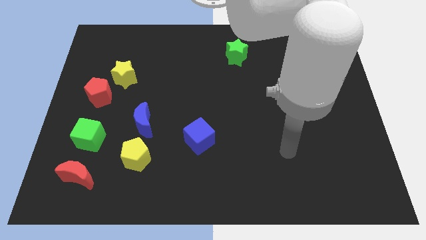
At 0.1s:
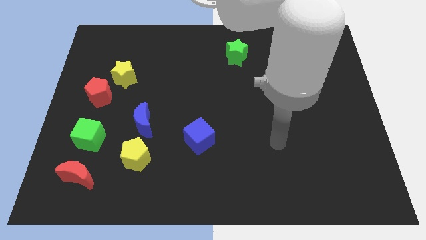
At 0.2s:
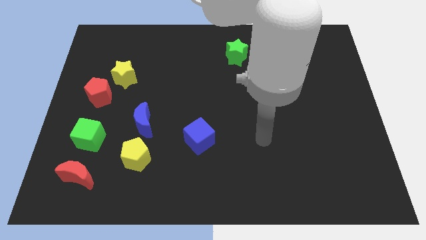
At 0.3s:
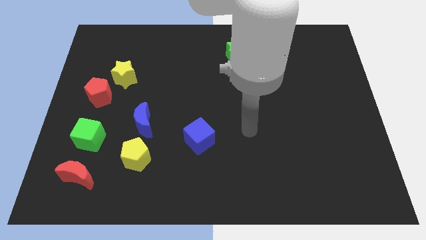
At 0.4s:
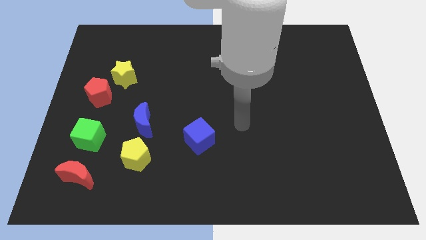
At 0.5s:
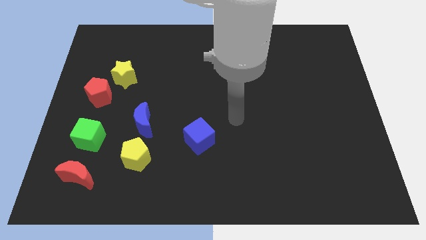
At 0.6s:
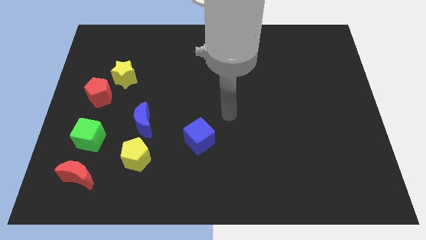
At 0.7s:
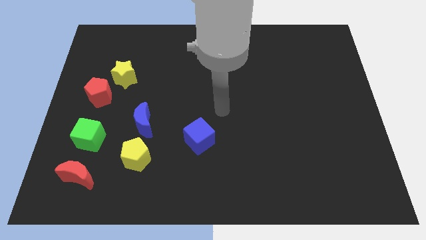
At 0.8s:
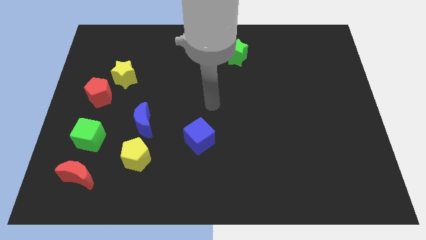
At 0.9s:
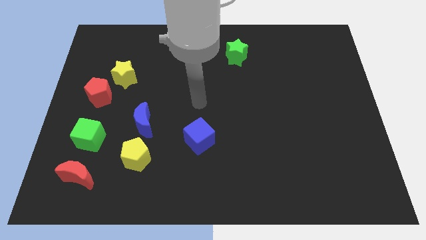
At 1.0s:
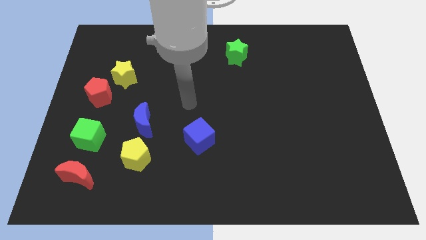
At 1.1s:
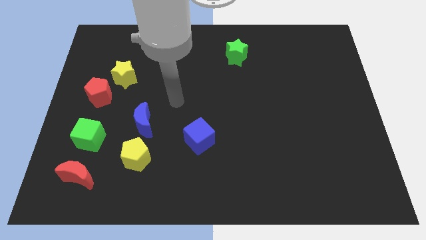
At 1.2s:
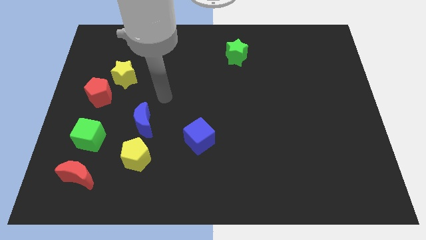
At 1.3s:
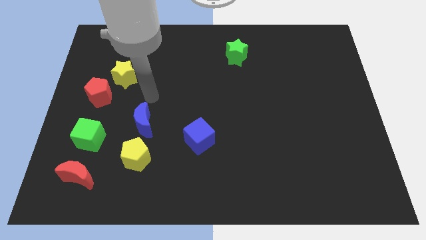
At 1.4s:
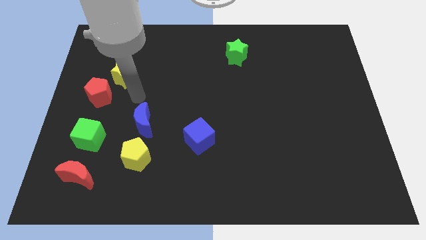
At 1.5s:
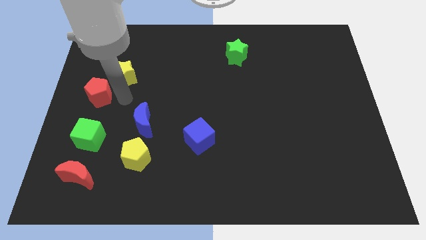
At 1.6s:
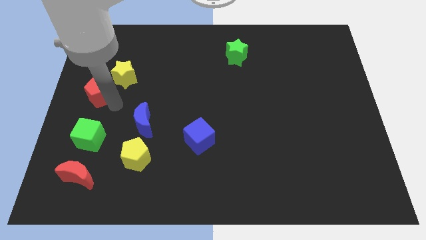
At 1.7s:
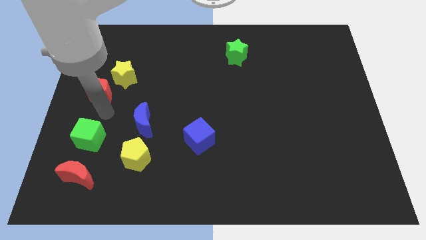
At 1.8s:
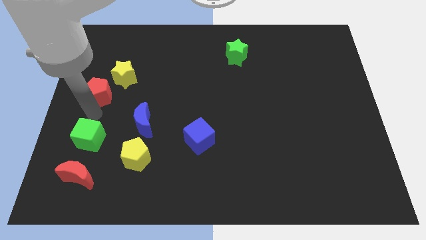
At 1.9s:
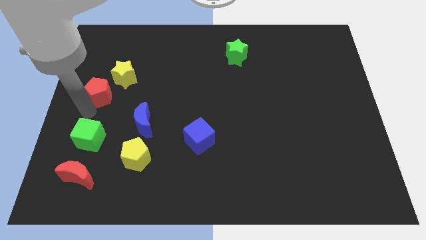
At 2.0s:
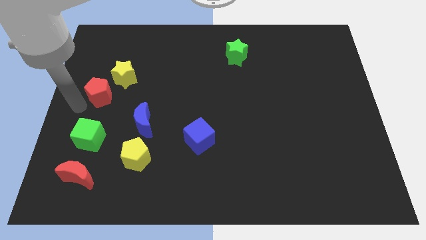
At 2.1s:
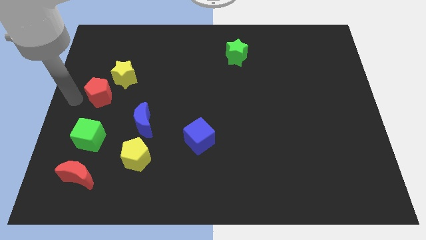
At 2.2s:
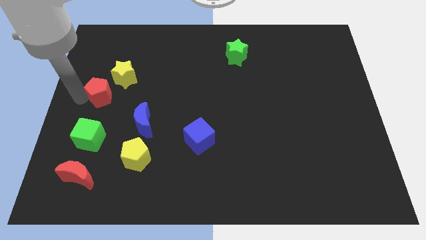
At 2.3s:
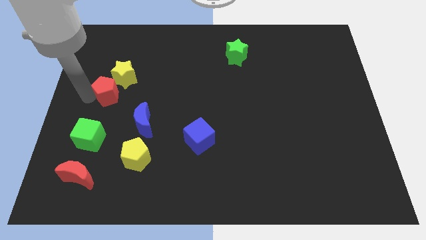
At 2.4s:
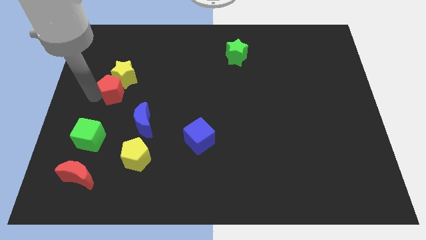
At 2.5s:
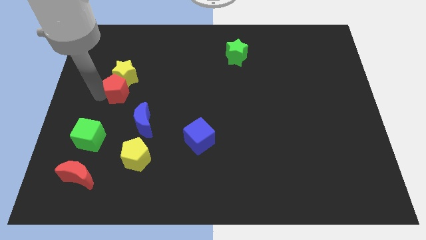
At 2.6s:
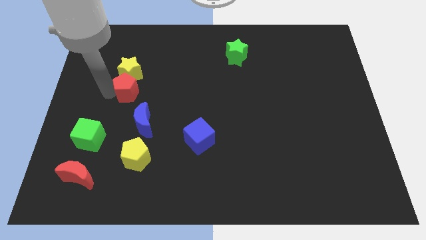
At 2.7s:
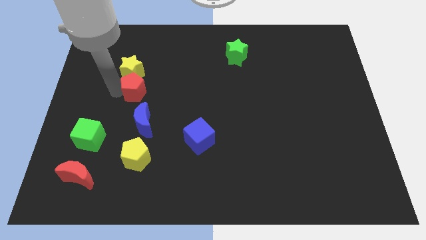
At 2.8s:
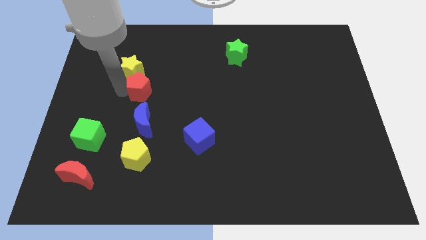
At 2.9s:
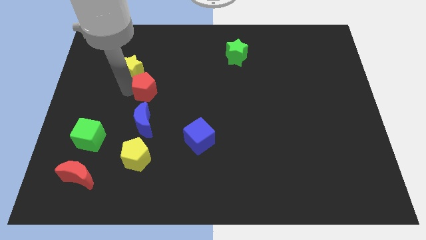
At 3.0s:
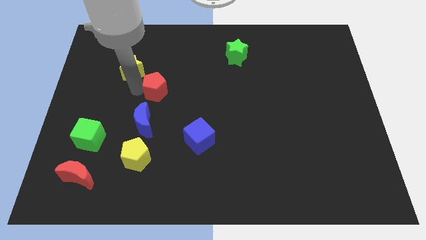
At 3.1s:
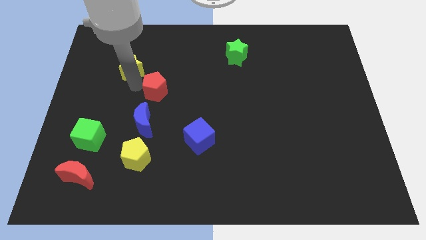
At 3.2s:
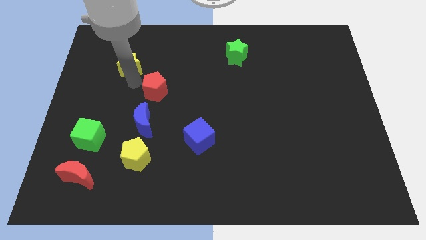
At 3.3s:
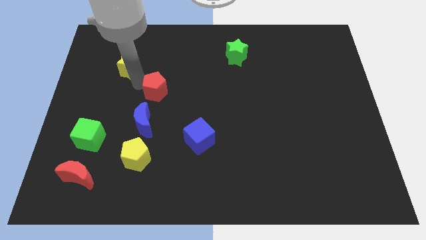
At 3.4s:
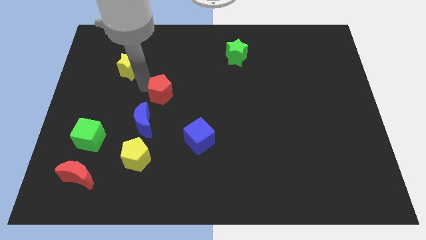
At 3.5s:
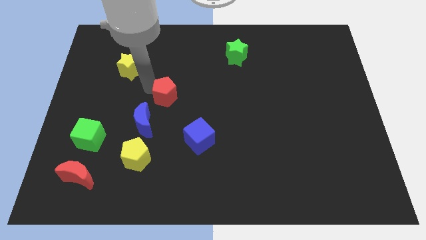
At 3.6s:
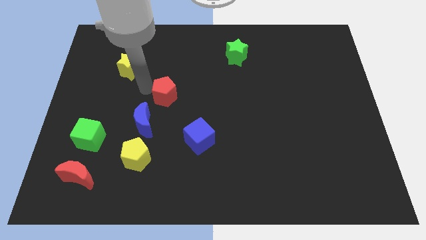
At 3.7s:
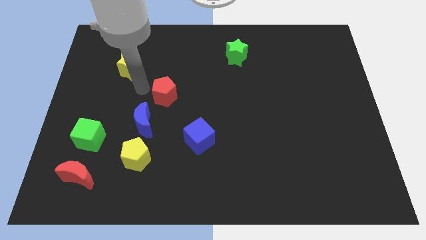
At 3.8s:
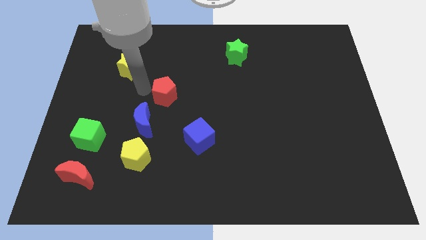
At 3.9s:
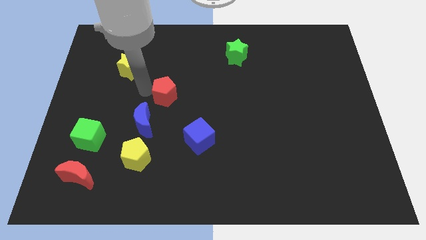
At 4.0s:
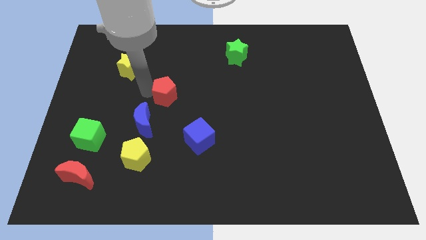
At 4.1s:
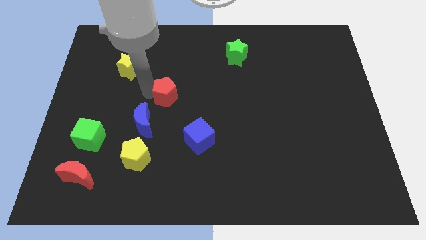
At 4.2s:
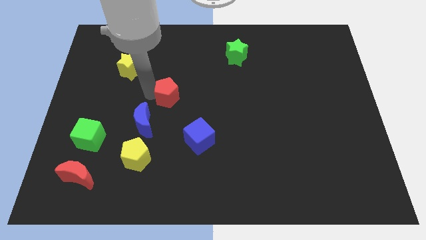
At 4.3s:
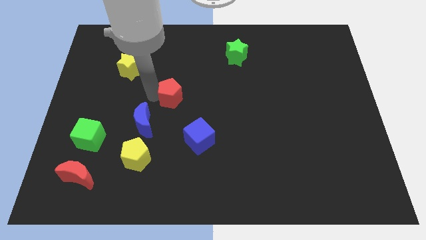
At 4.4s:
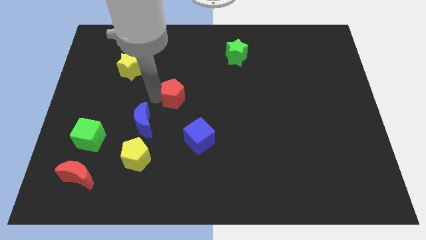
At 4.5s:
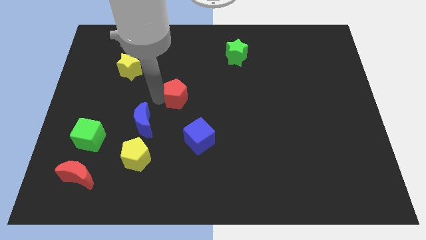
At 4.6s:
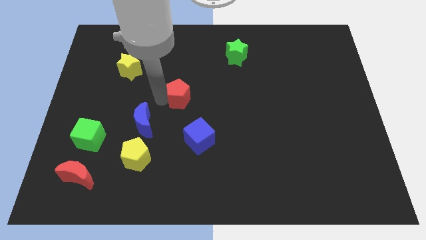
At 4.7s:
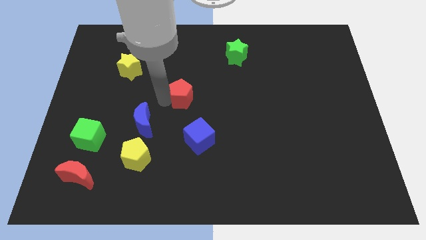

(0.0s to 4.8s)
move the red pentagon to the top side of the blue cube

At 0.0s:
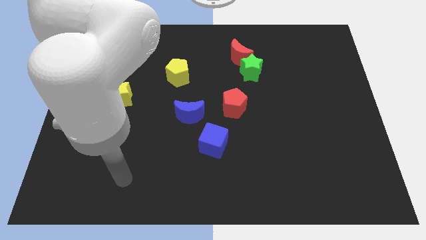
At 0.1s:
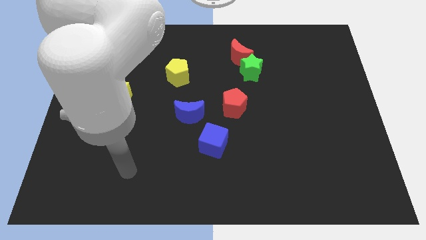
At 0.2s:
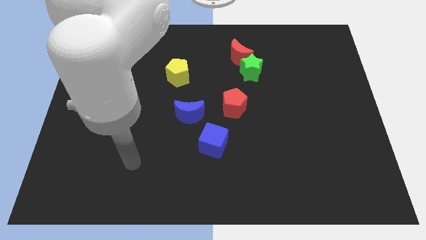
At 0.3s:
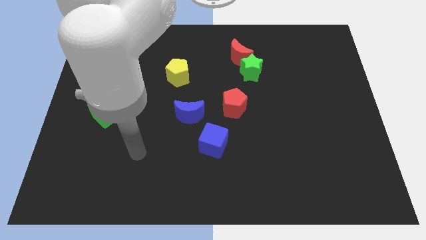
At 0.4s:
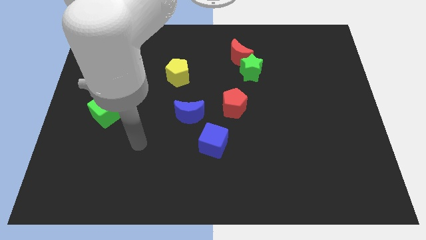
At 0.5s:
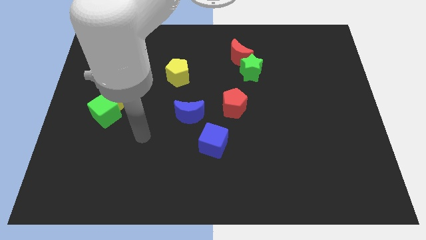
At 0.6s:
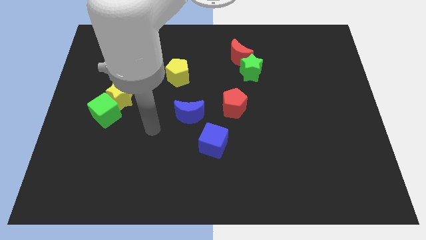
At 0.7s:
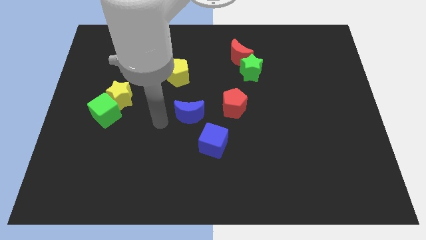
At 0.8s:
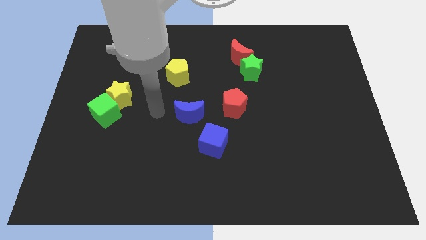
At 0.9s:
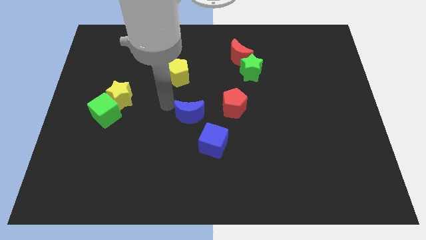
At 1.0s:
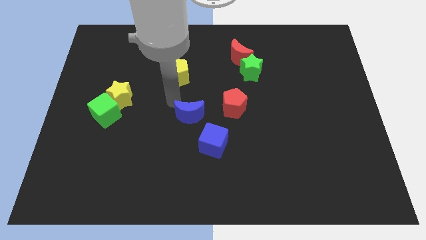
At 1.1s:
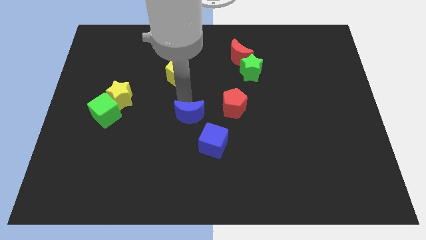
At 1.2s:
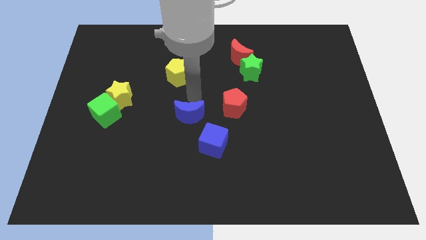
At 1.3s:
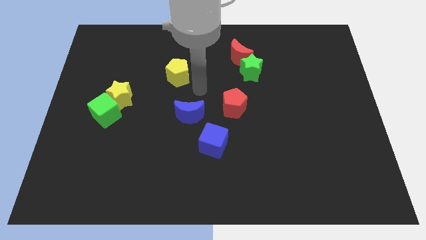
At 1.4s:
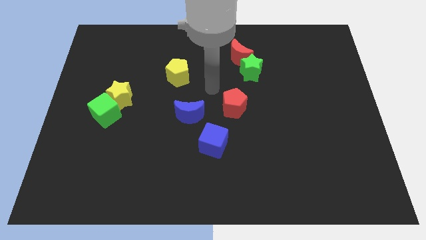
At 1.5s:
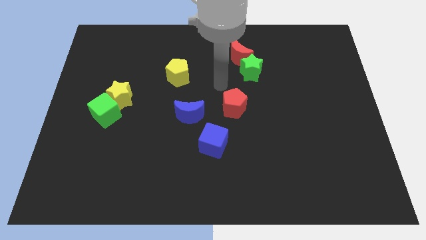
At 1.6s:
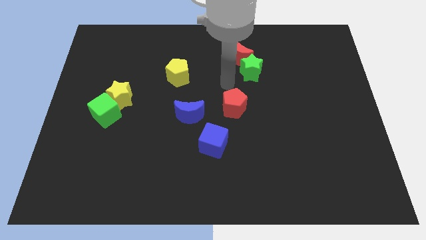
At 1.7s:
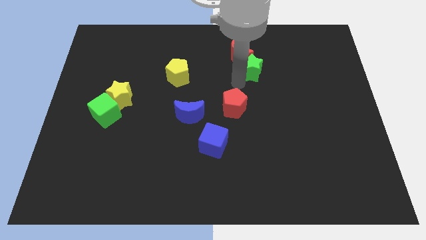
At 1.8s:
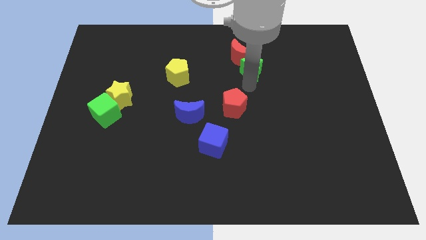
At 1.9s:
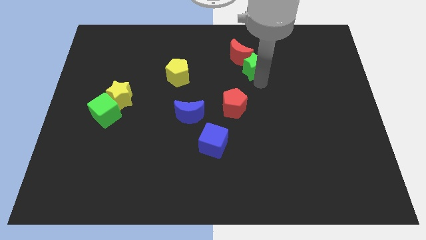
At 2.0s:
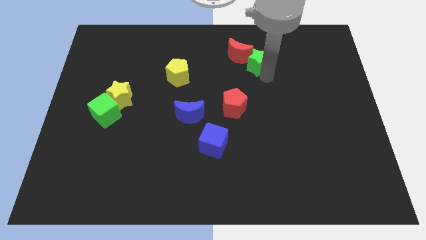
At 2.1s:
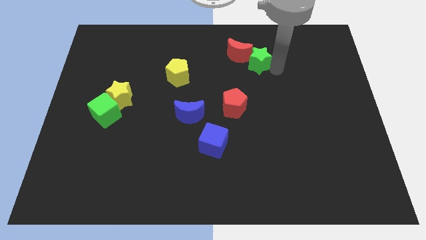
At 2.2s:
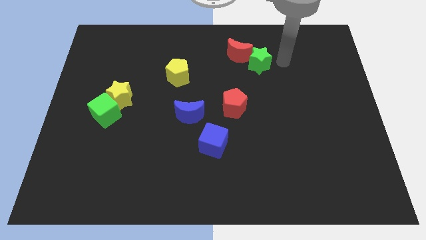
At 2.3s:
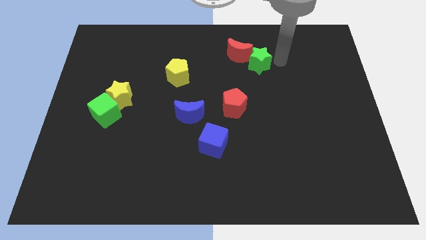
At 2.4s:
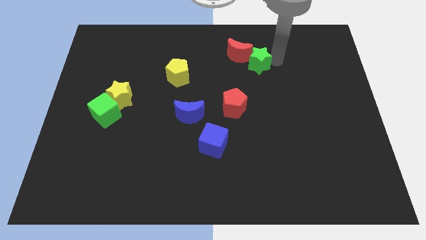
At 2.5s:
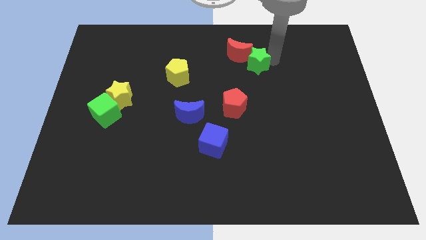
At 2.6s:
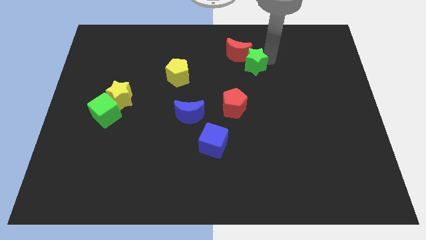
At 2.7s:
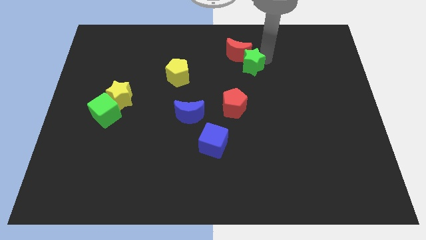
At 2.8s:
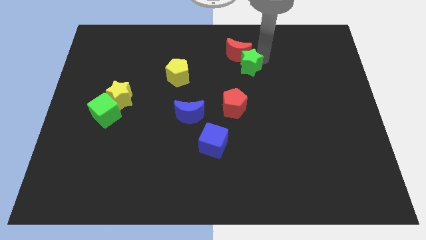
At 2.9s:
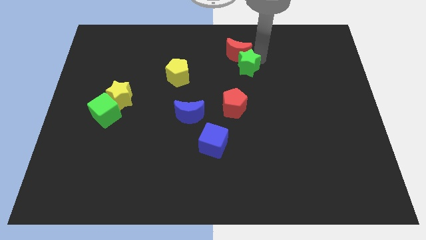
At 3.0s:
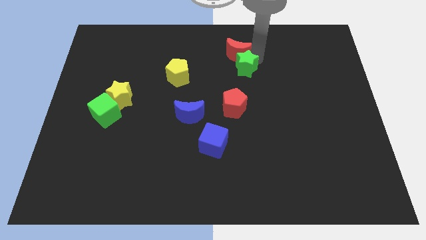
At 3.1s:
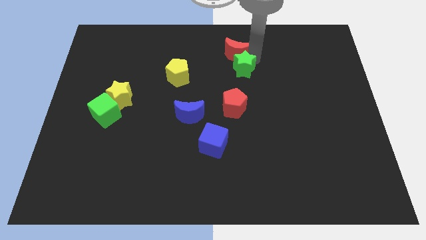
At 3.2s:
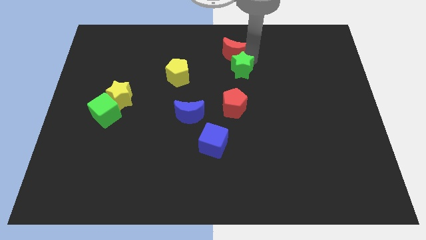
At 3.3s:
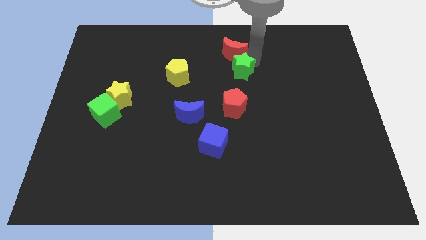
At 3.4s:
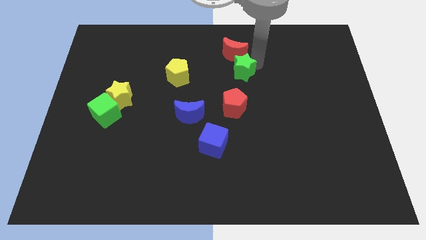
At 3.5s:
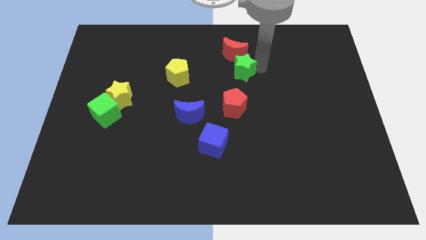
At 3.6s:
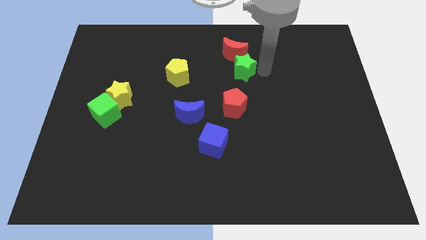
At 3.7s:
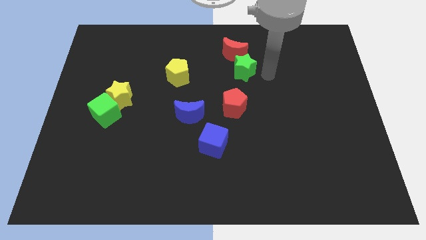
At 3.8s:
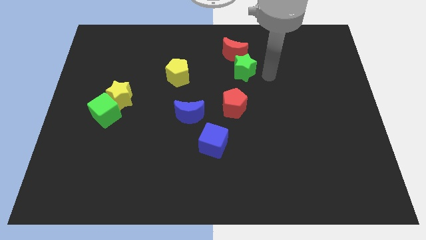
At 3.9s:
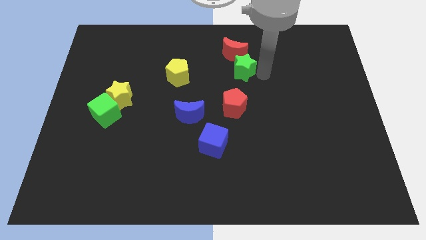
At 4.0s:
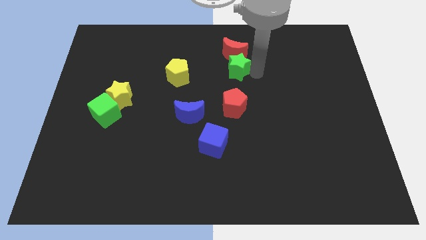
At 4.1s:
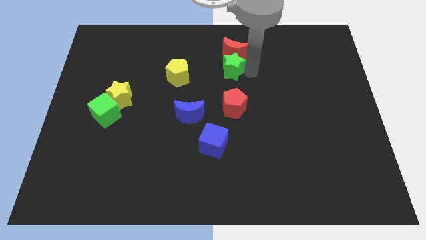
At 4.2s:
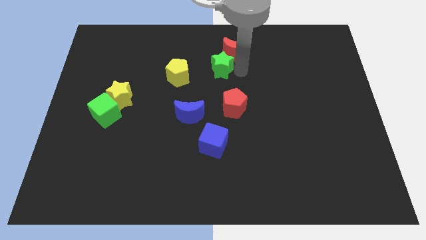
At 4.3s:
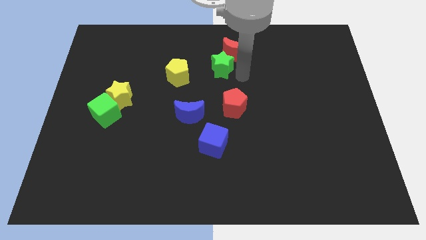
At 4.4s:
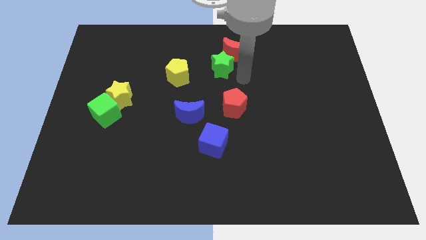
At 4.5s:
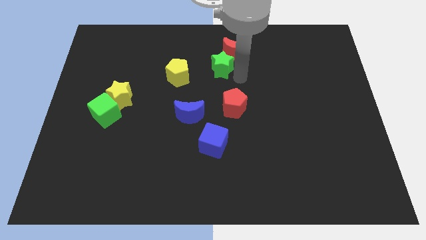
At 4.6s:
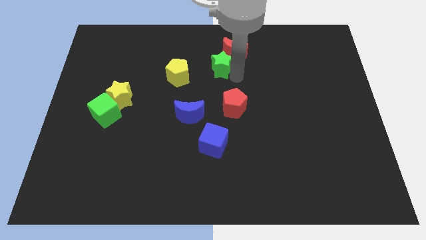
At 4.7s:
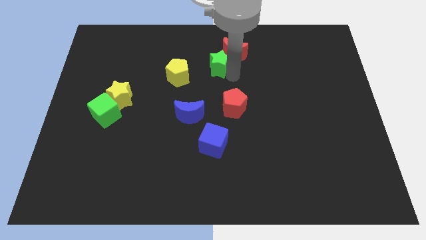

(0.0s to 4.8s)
move the green star to the left side of the red moon
